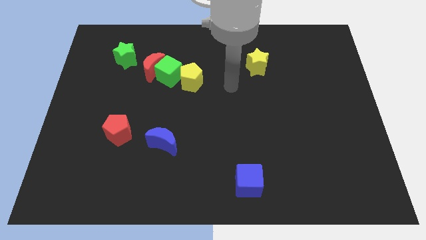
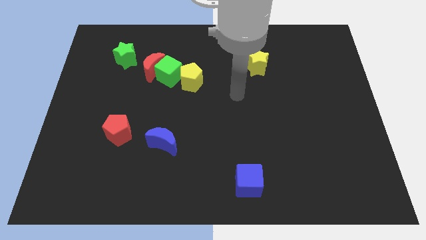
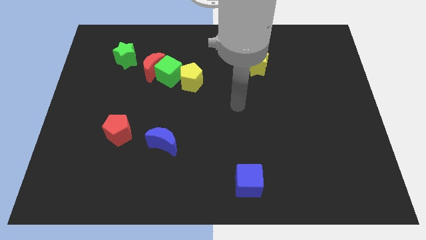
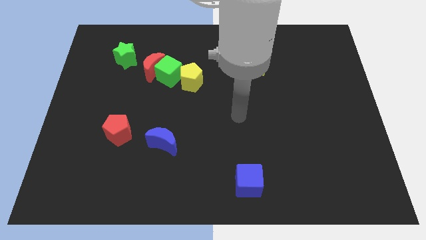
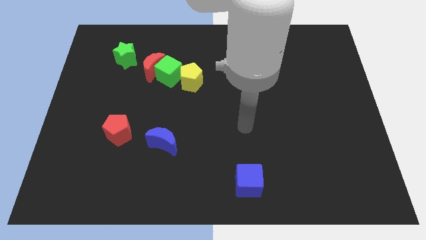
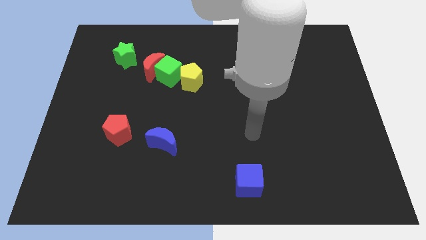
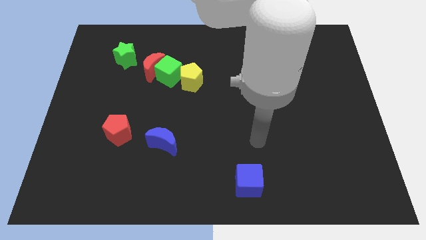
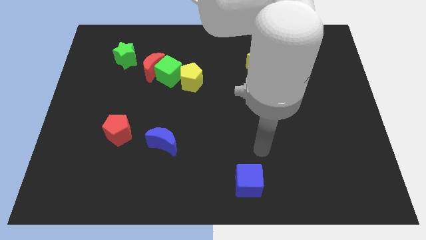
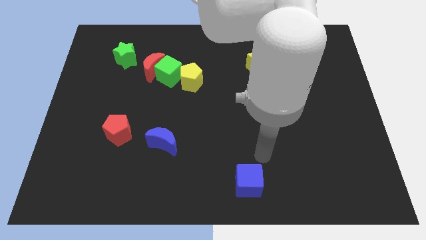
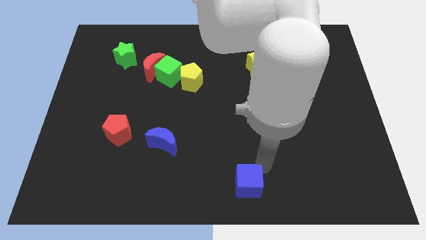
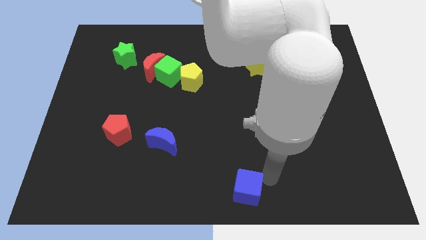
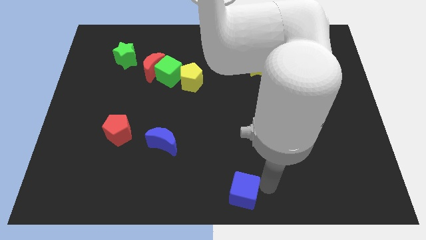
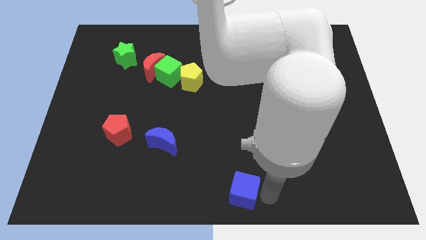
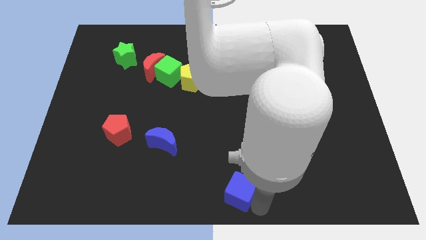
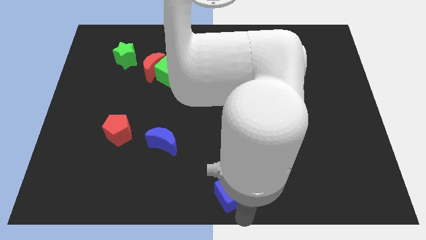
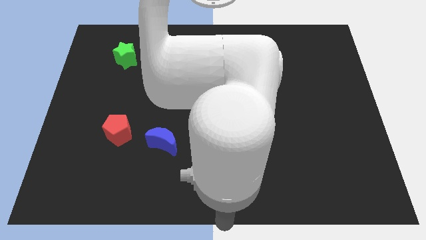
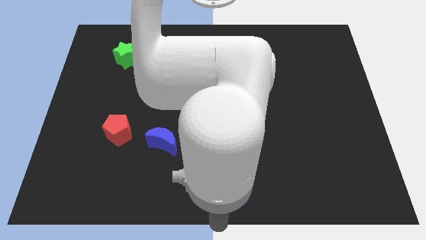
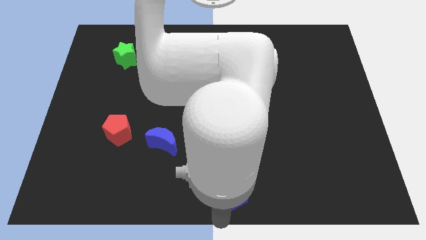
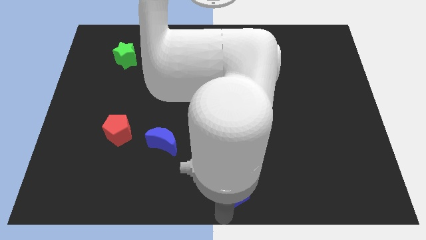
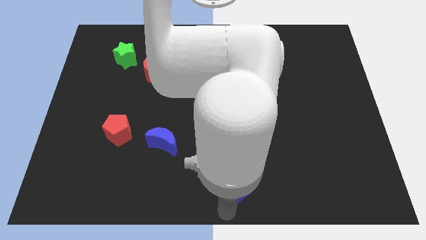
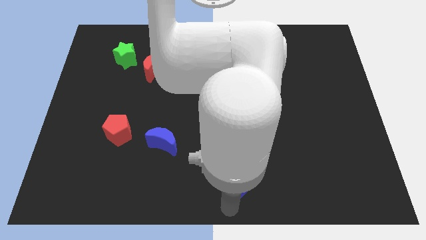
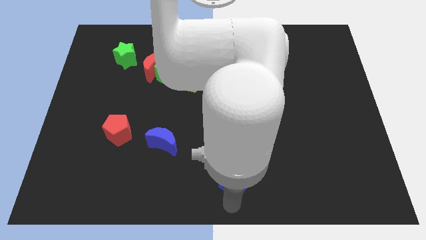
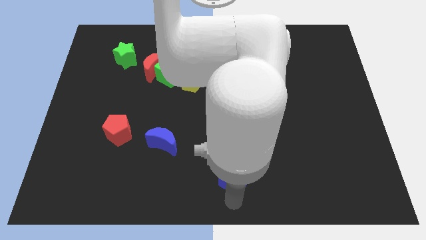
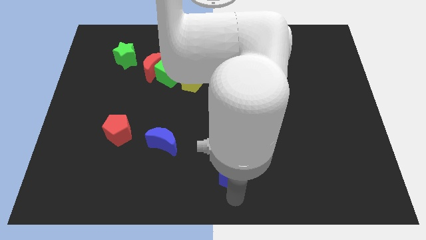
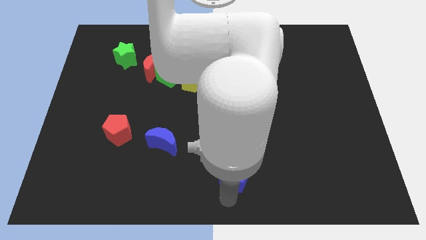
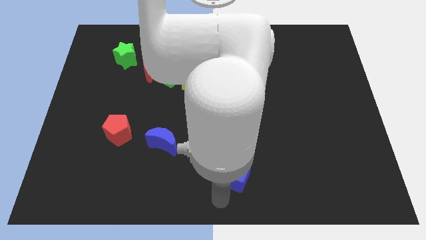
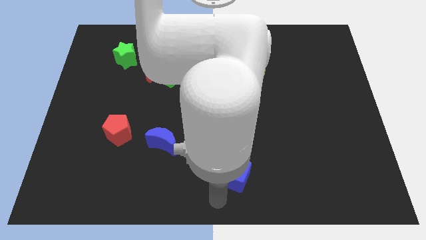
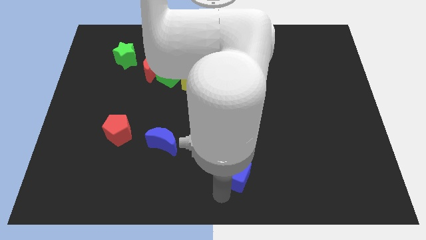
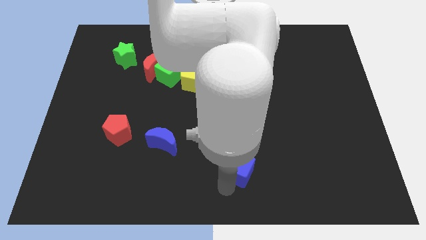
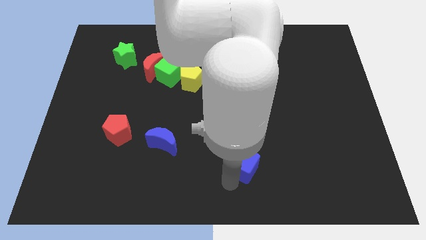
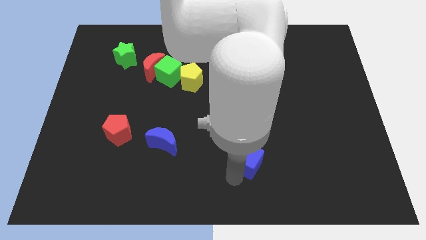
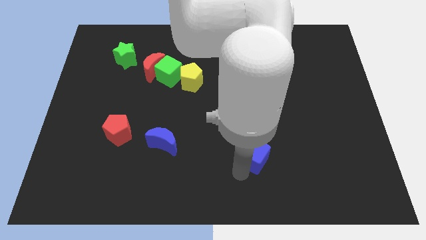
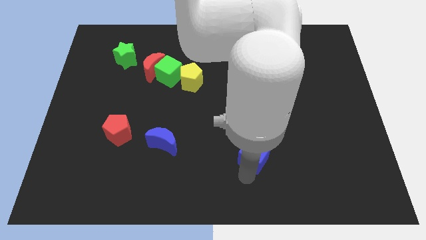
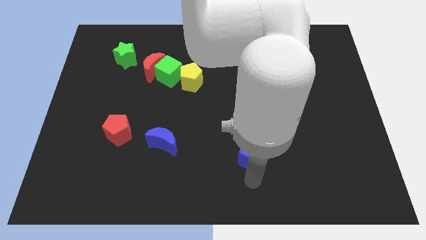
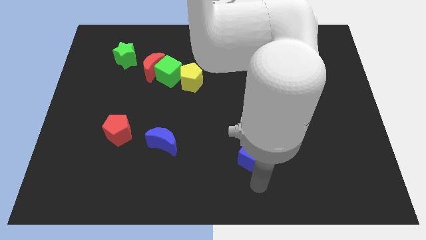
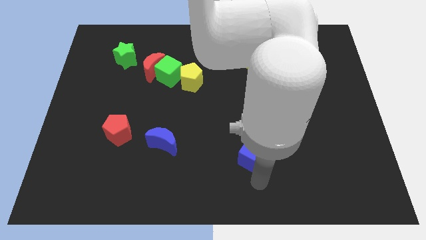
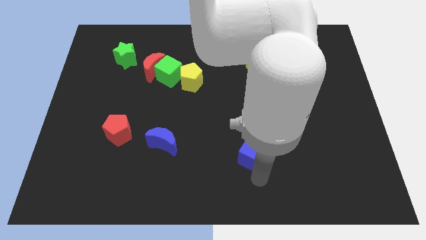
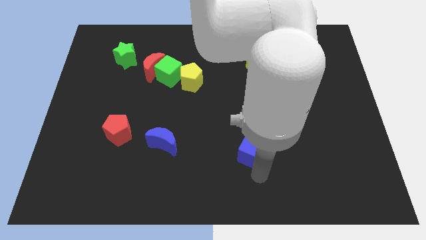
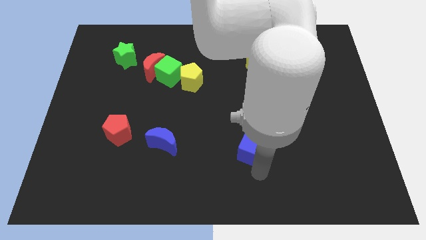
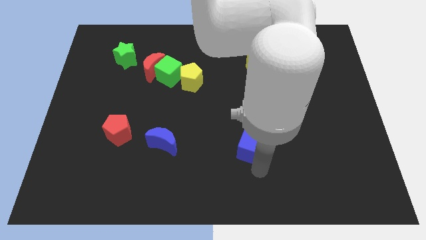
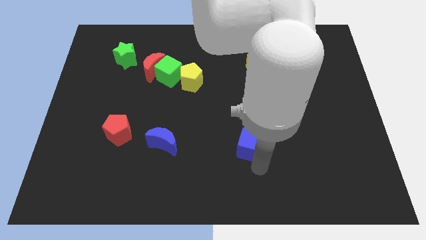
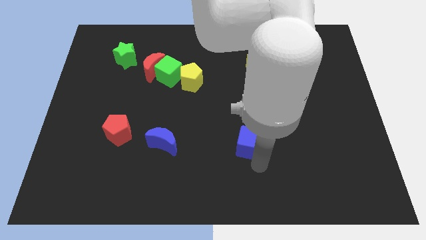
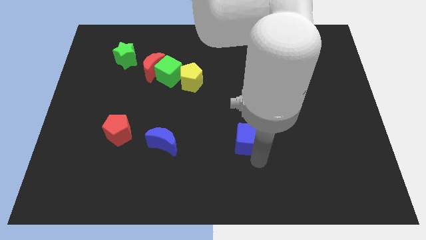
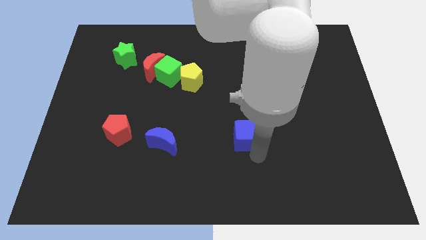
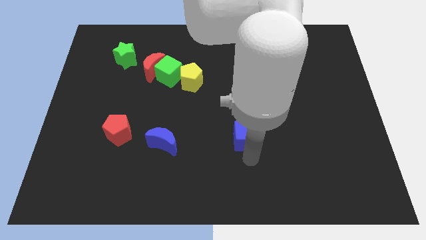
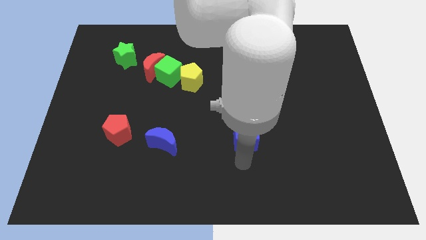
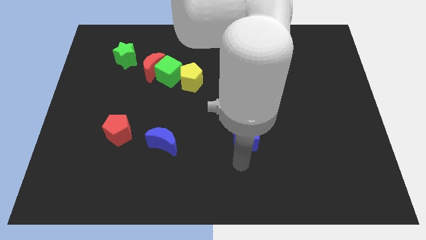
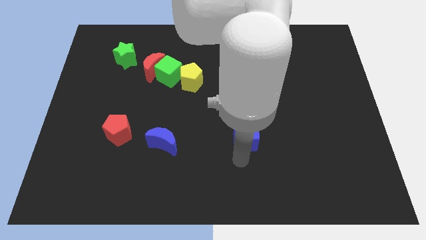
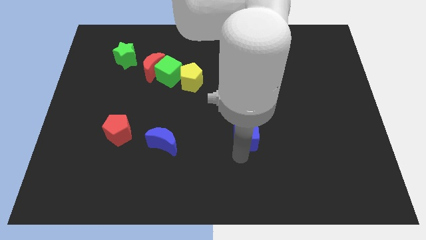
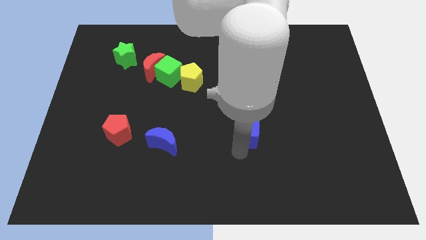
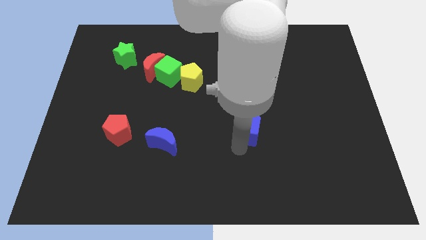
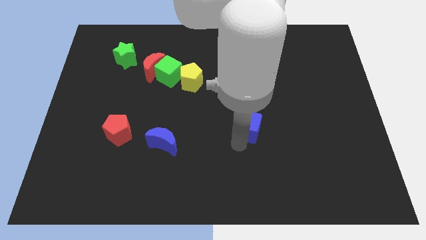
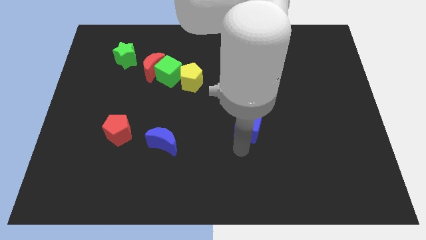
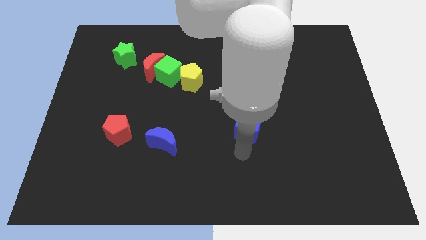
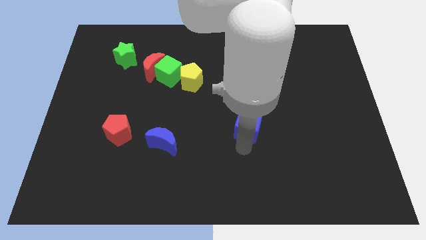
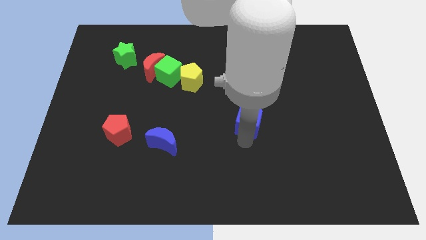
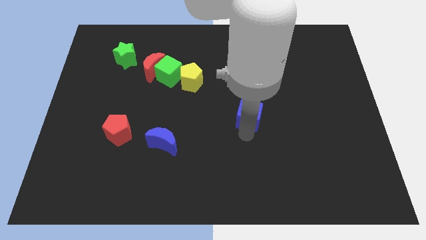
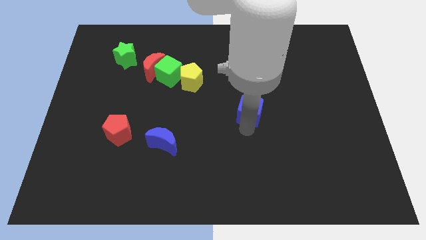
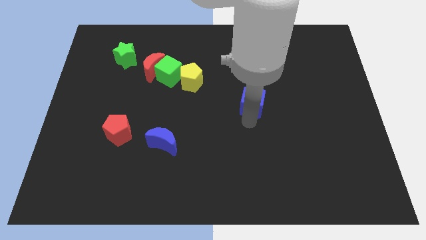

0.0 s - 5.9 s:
push the blue cube upwards

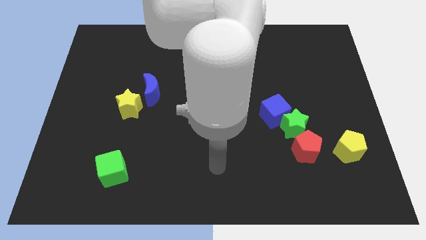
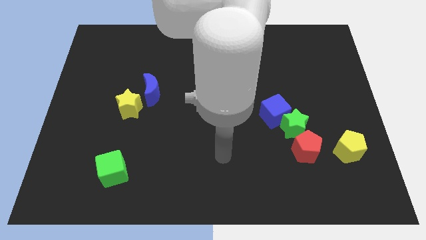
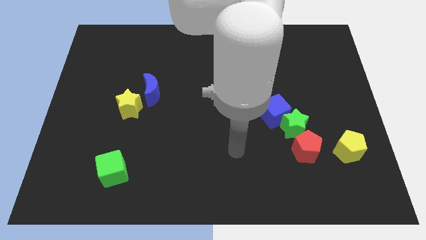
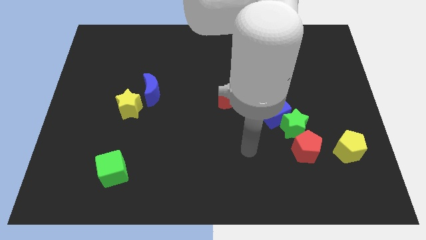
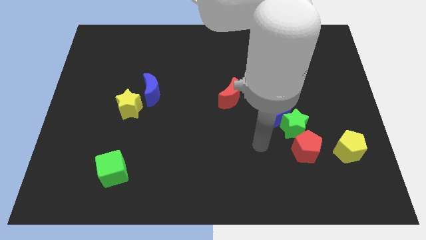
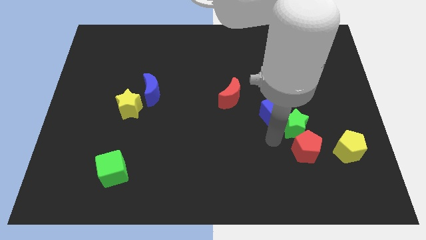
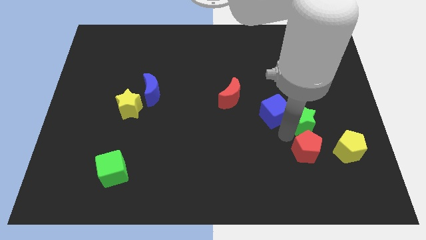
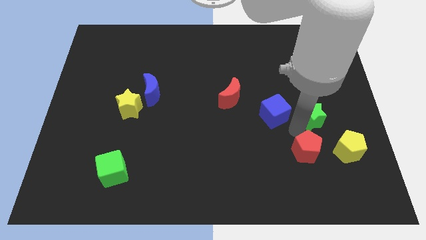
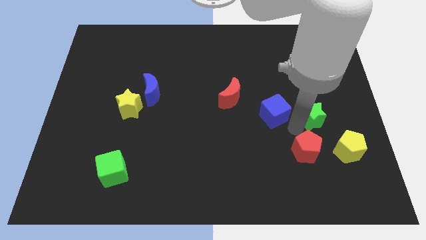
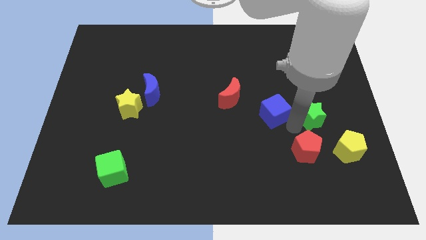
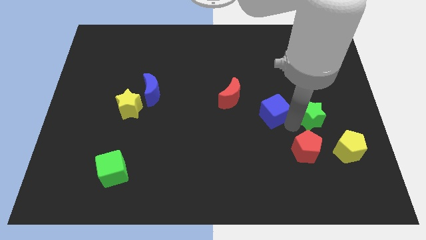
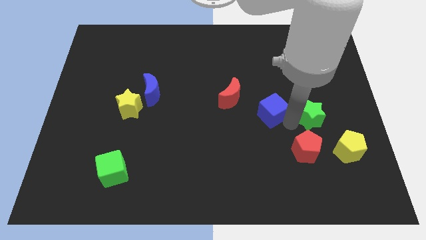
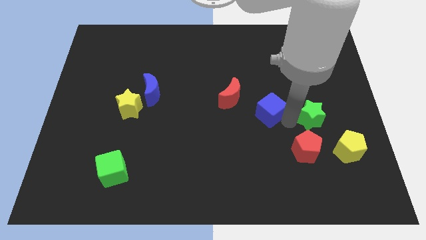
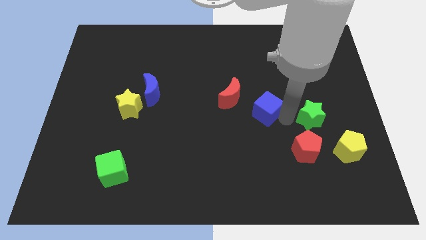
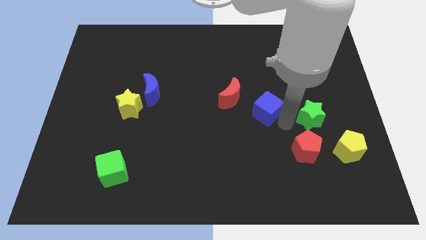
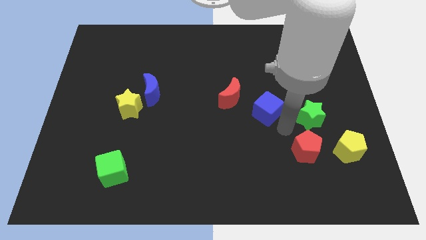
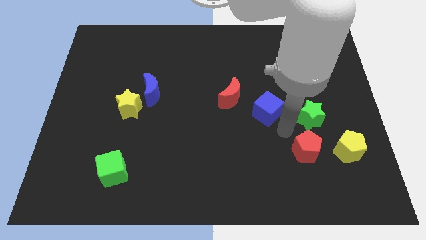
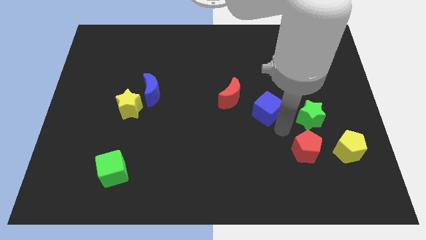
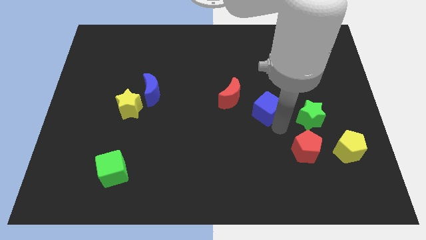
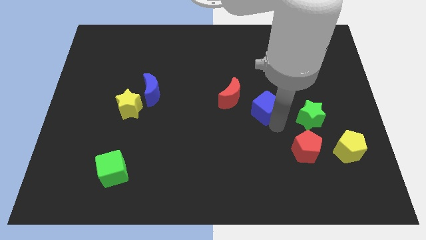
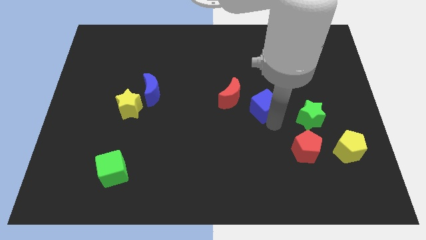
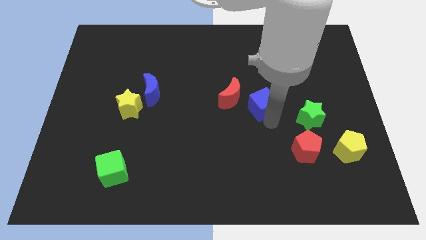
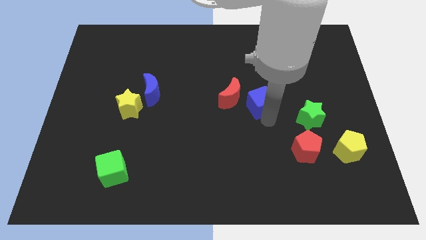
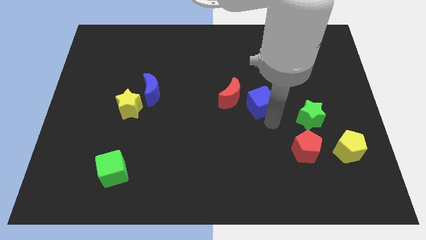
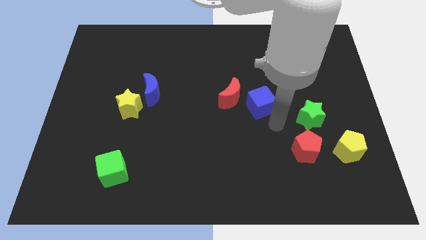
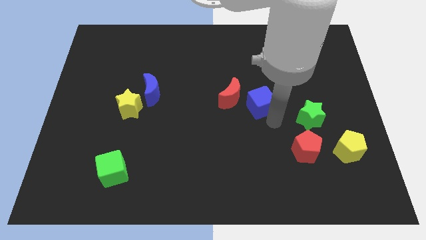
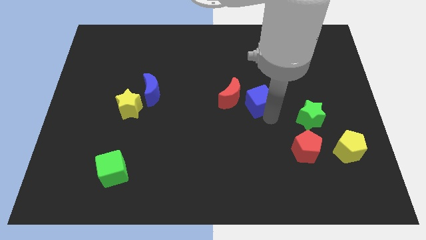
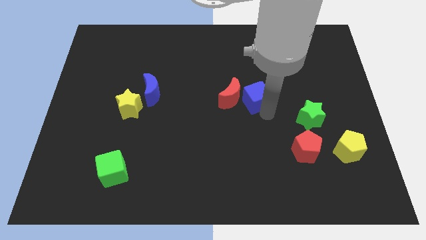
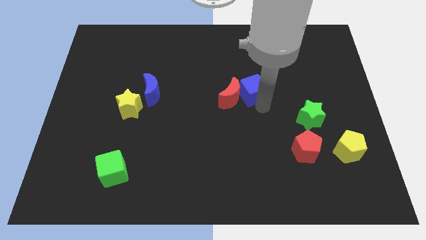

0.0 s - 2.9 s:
push the blue cube up and then left somewhat
